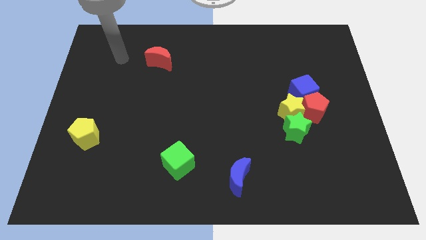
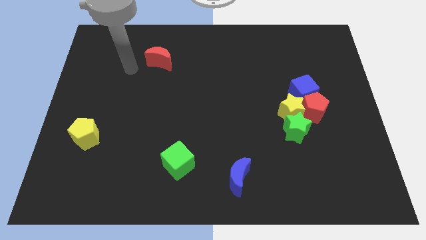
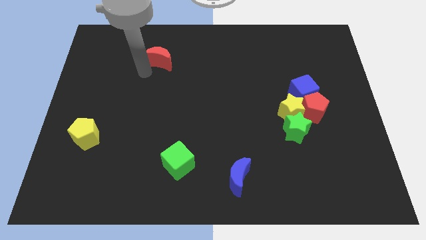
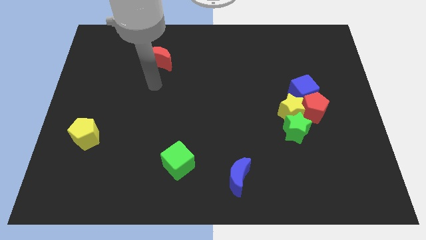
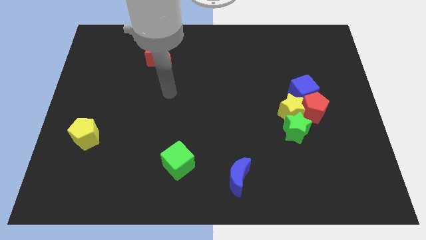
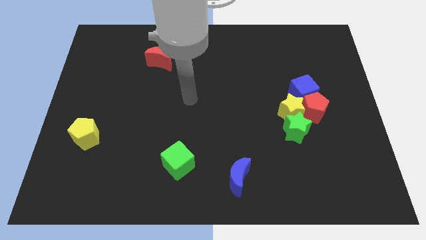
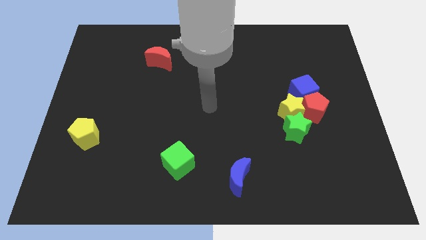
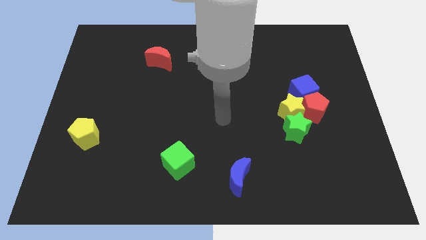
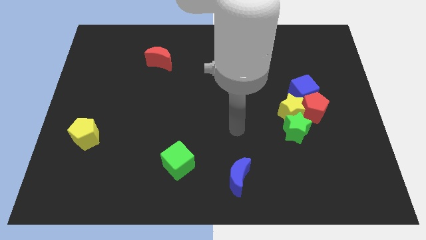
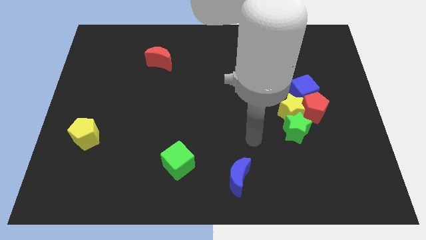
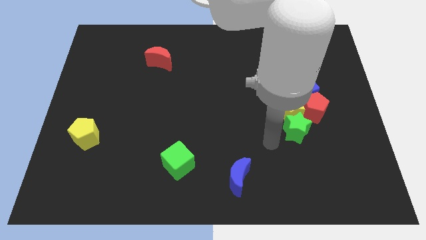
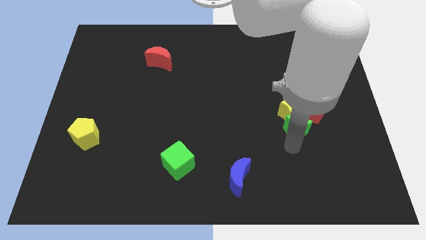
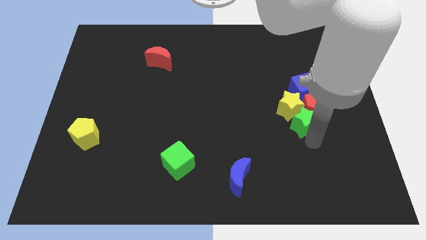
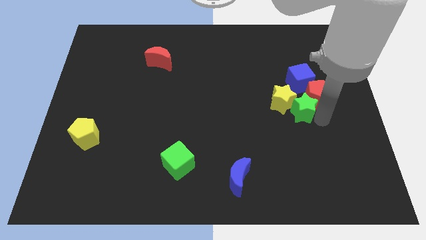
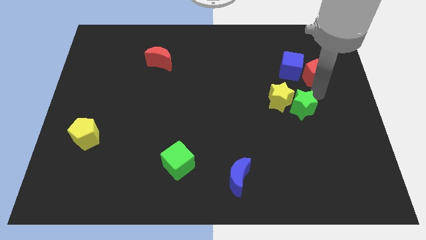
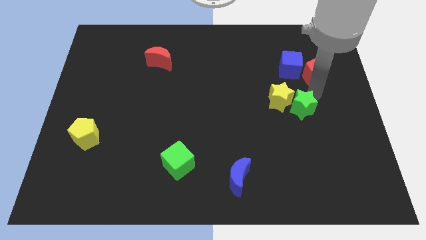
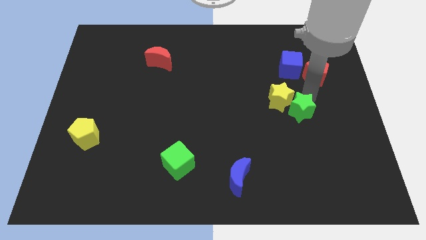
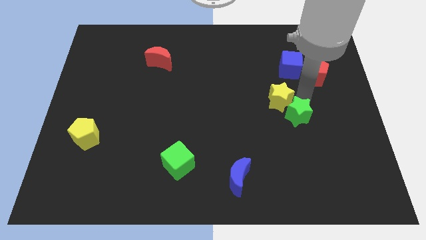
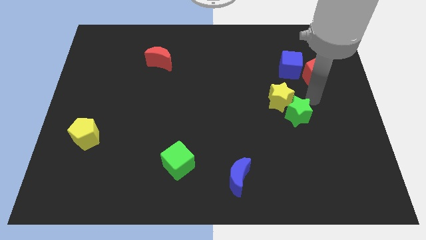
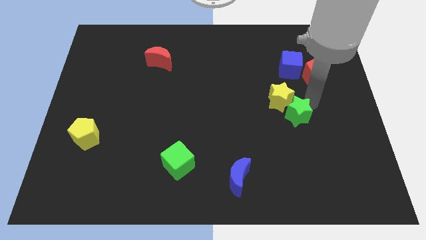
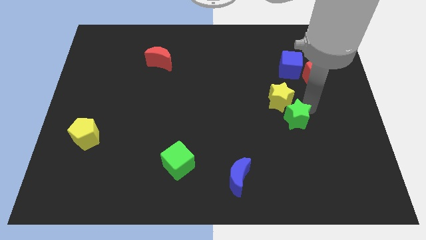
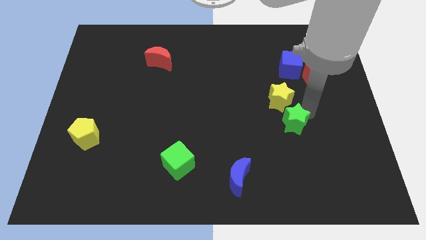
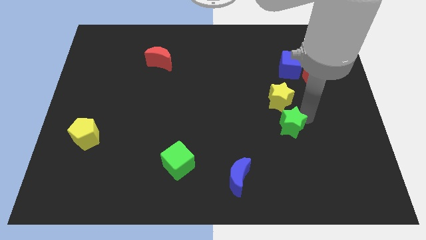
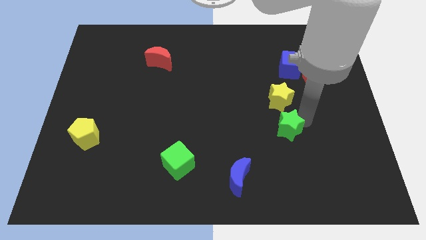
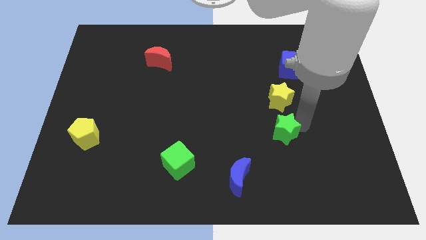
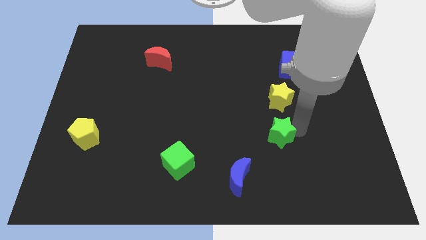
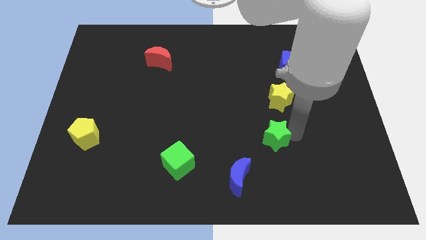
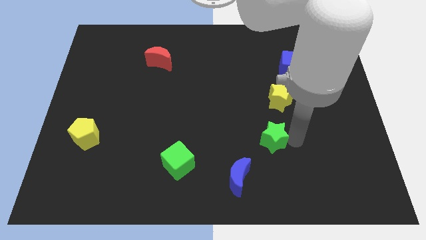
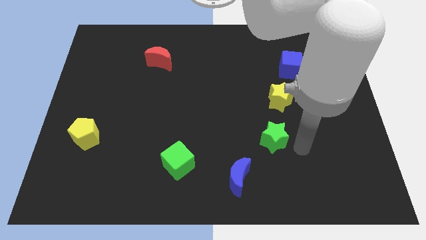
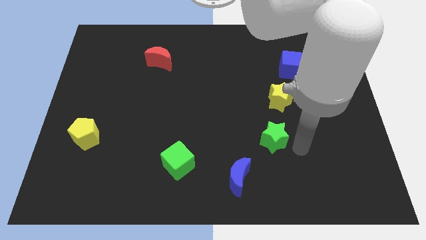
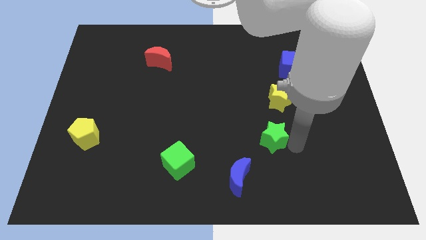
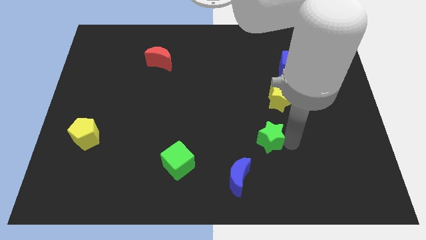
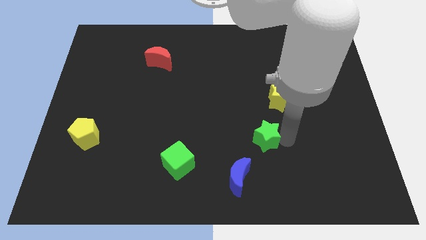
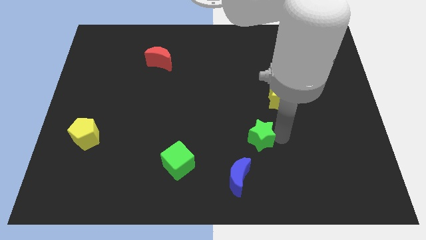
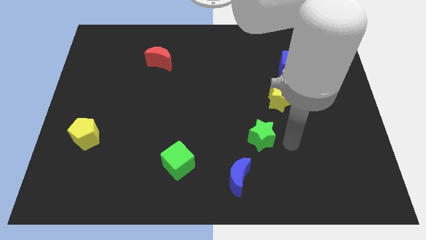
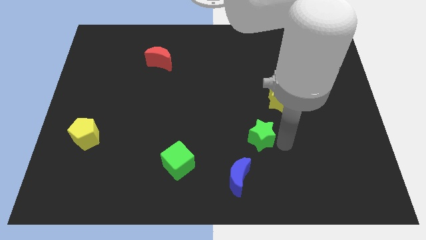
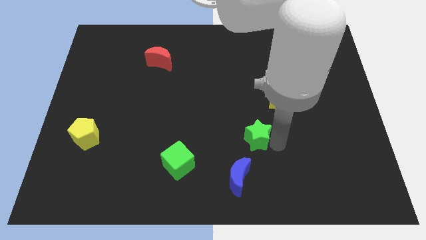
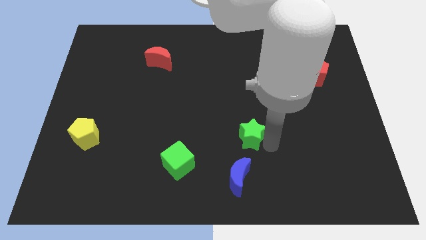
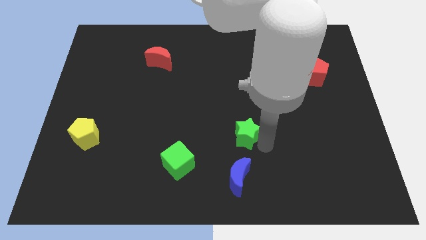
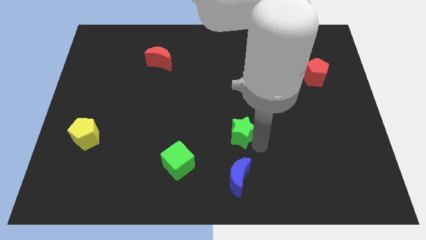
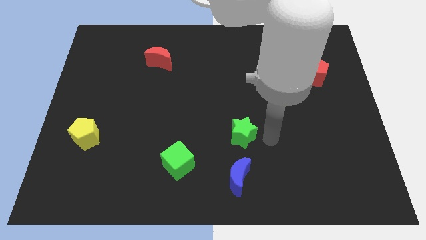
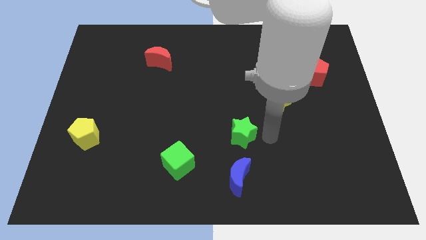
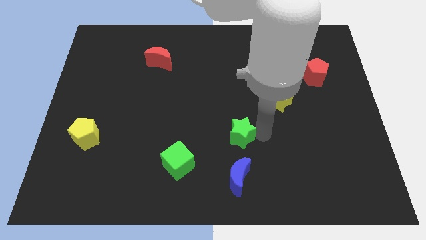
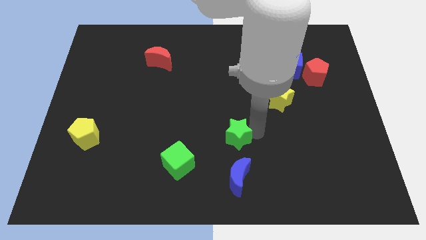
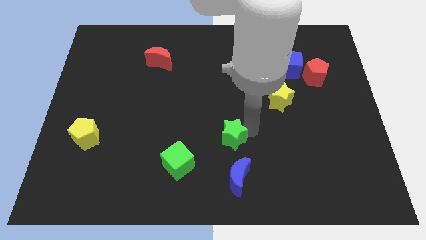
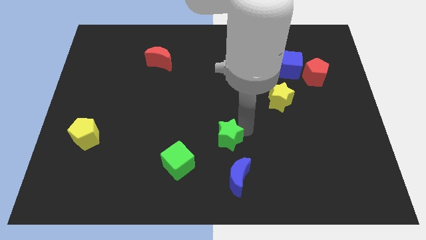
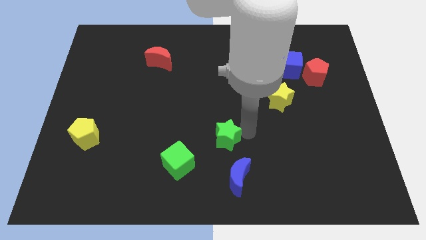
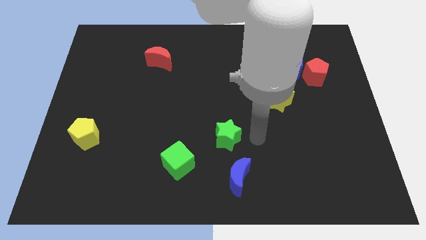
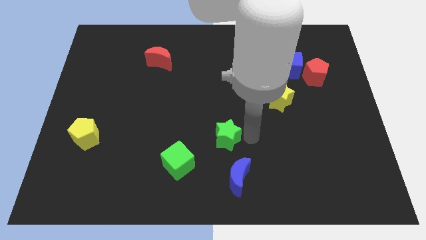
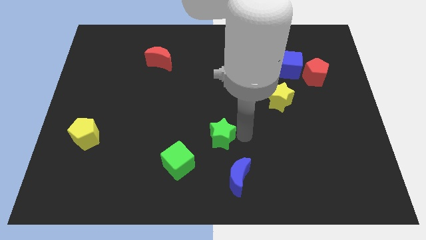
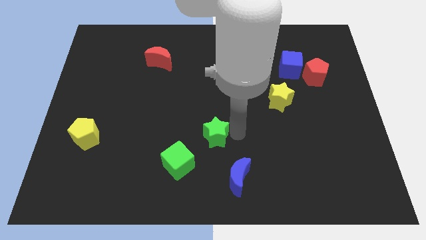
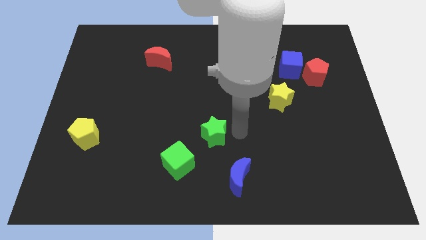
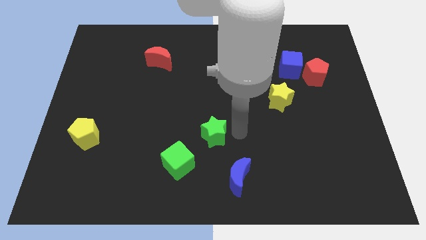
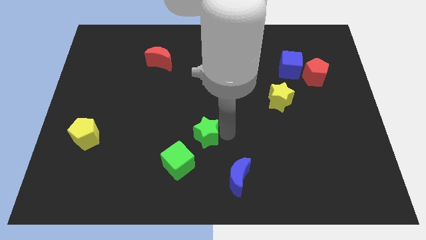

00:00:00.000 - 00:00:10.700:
slide the green star to the left

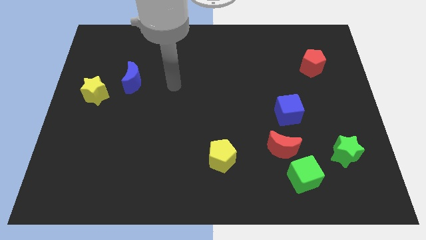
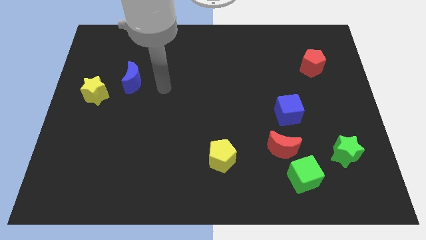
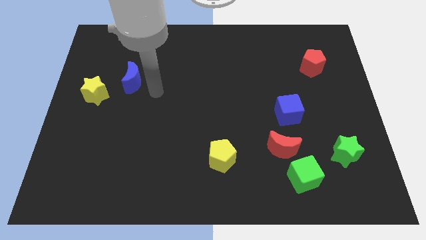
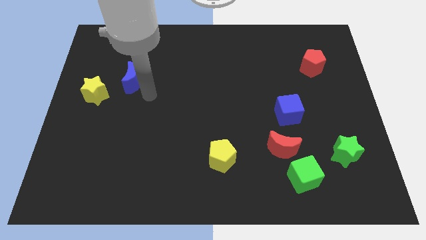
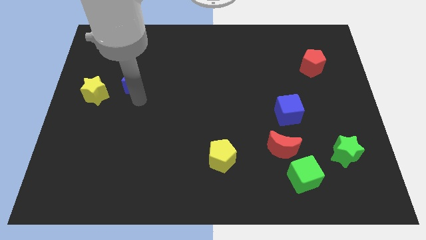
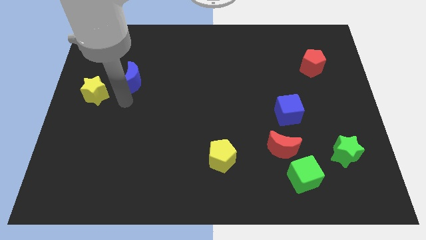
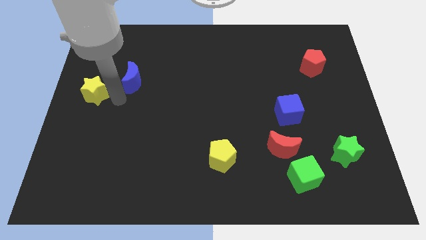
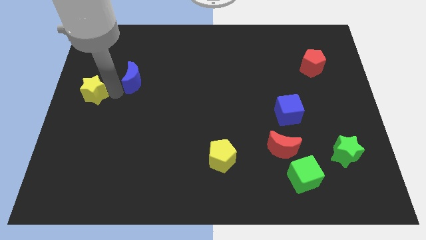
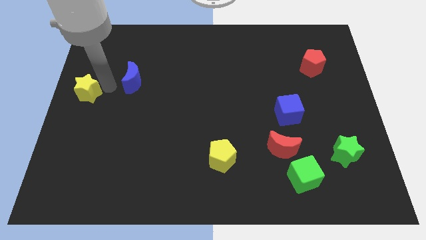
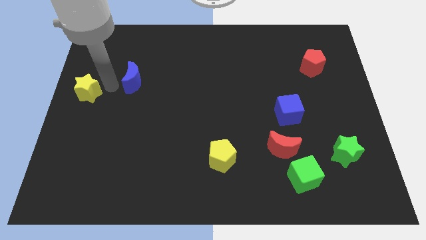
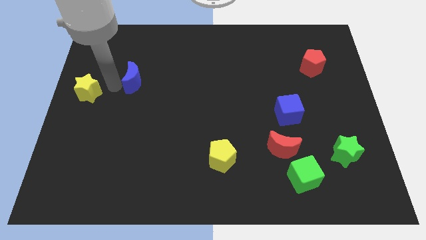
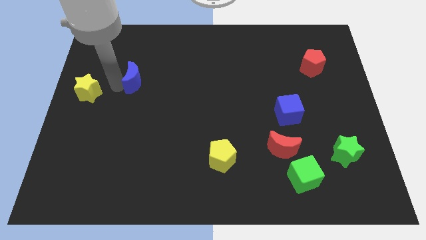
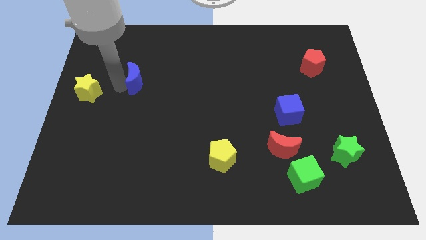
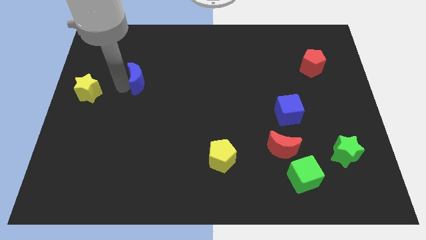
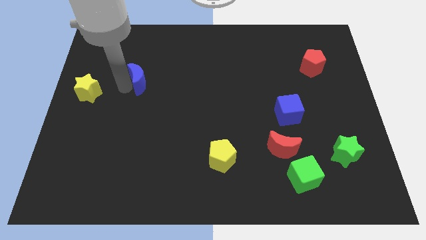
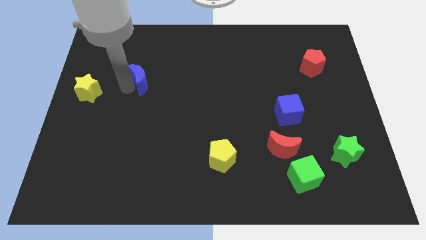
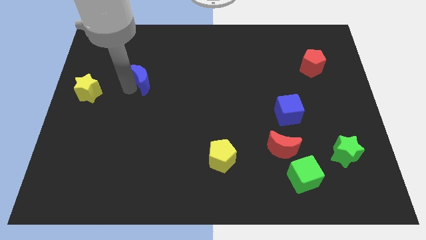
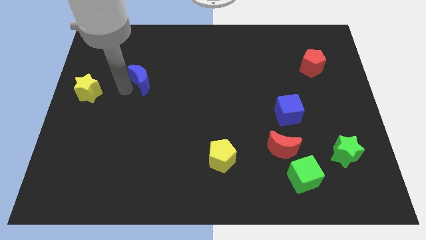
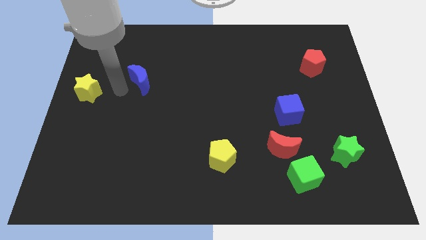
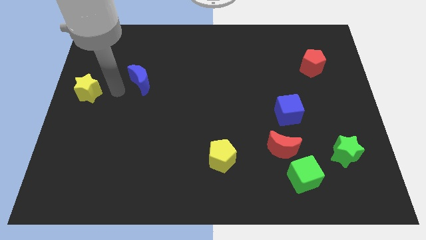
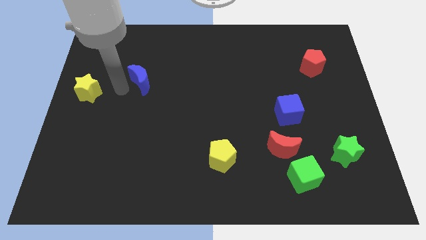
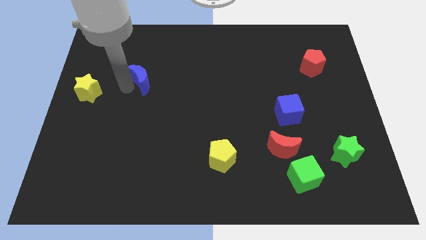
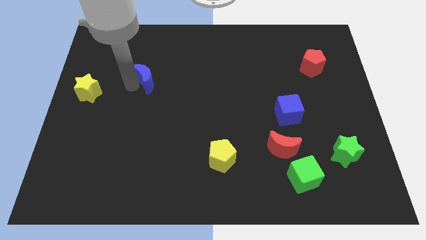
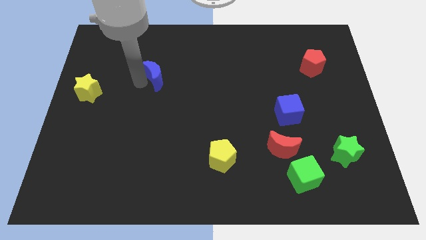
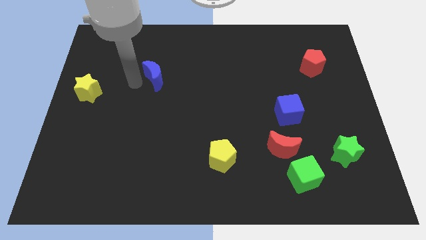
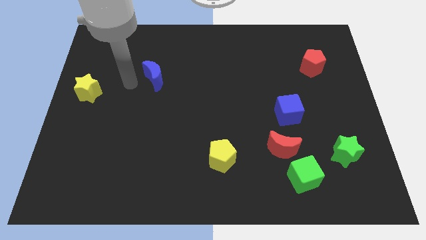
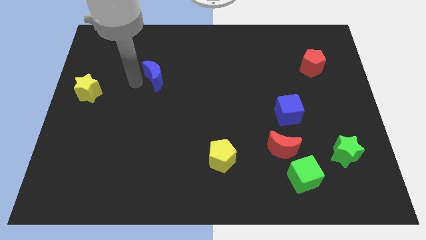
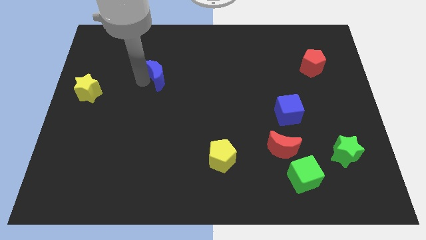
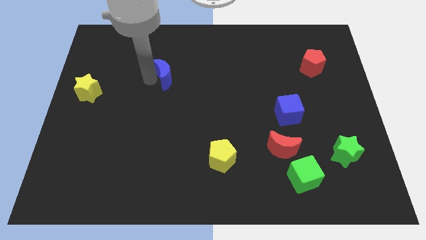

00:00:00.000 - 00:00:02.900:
move the blue moon right somewhat
